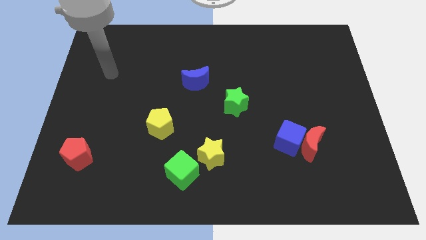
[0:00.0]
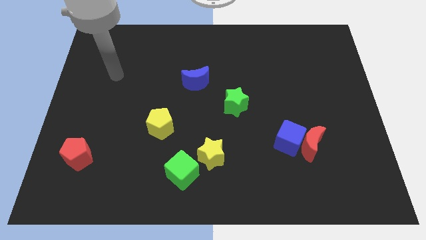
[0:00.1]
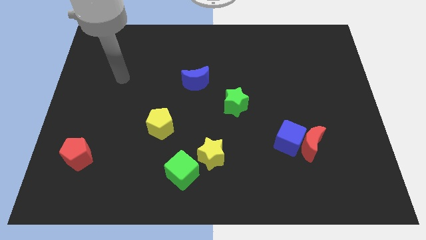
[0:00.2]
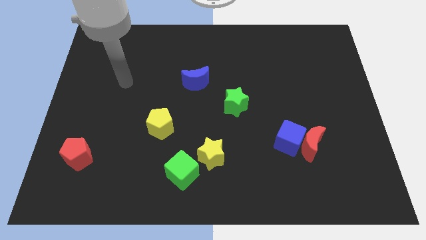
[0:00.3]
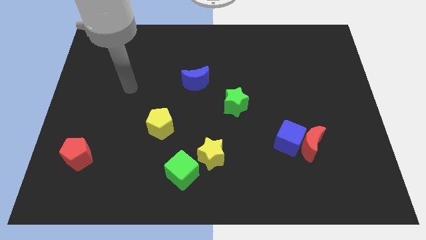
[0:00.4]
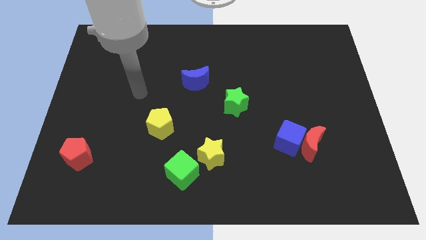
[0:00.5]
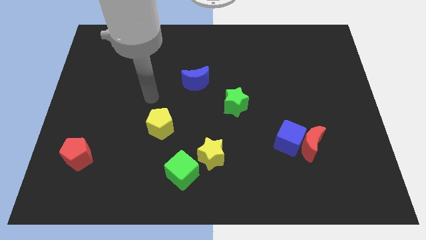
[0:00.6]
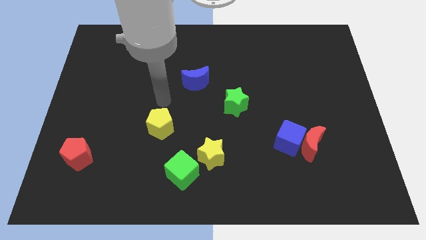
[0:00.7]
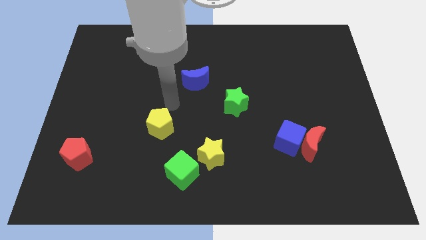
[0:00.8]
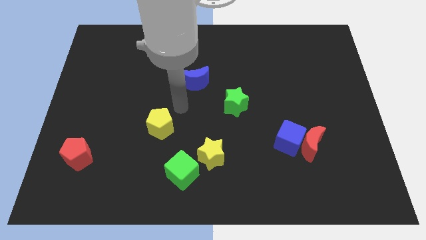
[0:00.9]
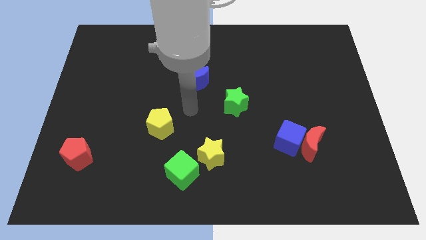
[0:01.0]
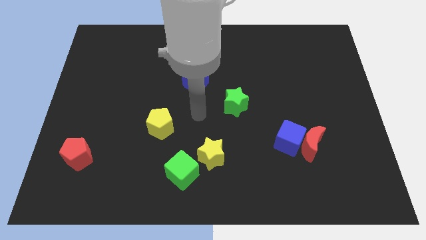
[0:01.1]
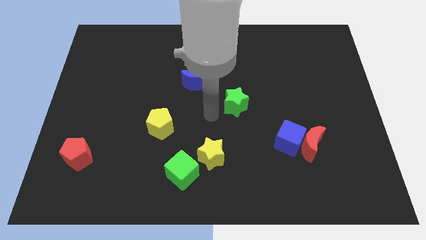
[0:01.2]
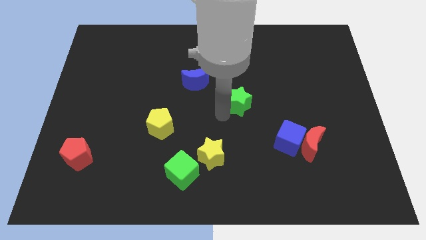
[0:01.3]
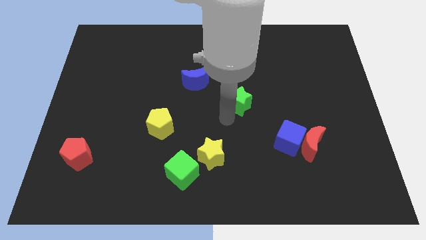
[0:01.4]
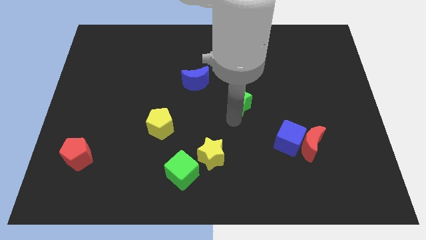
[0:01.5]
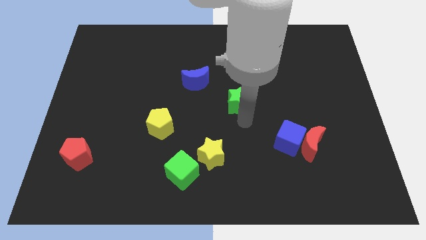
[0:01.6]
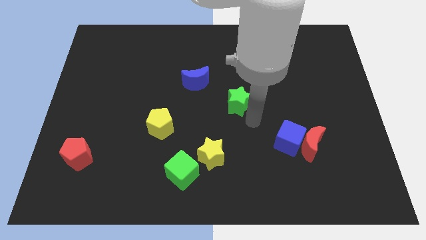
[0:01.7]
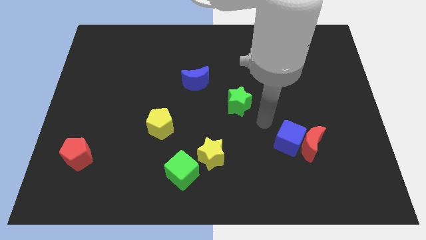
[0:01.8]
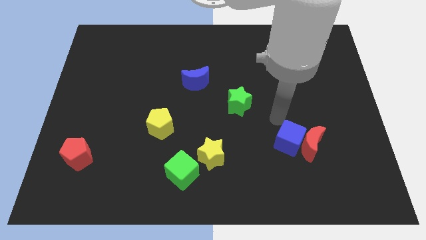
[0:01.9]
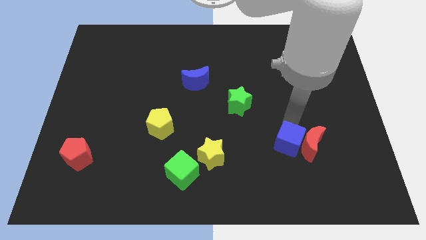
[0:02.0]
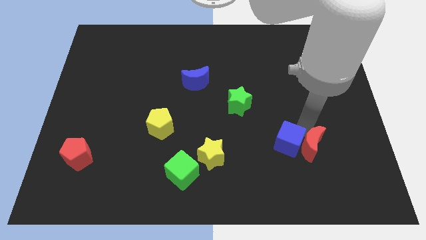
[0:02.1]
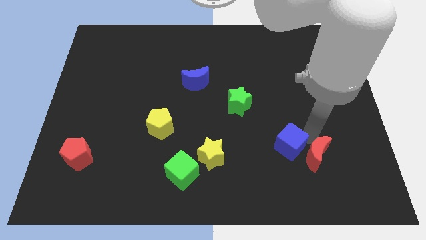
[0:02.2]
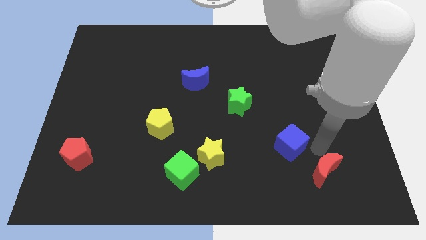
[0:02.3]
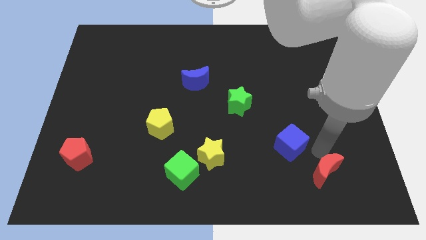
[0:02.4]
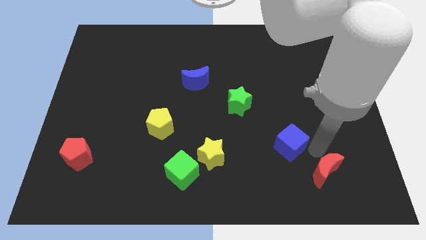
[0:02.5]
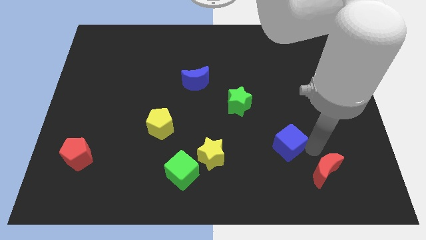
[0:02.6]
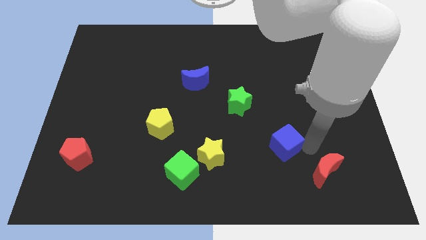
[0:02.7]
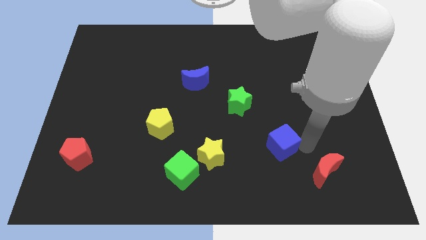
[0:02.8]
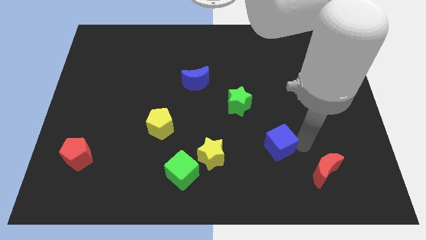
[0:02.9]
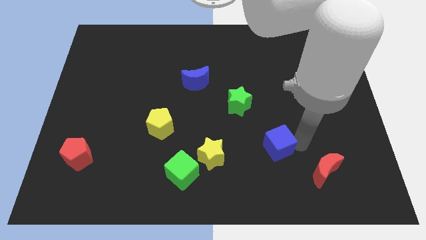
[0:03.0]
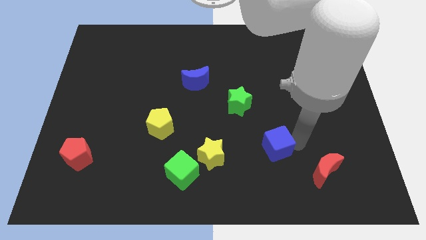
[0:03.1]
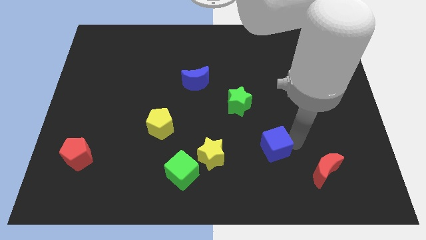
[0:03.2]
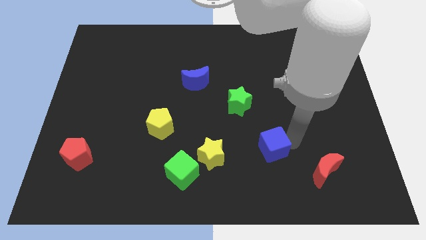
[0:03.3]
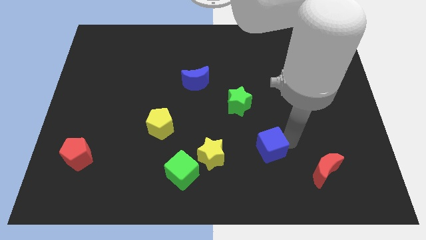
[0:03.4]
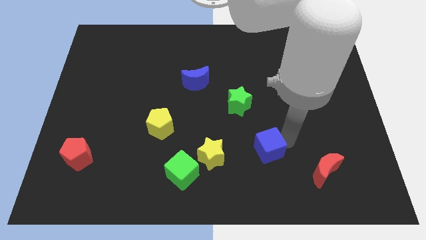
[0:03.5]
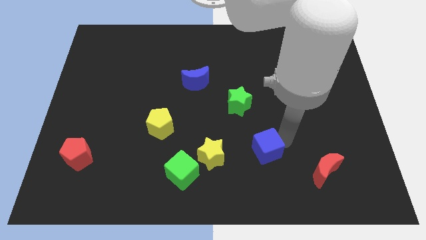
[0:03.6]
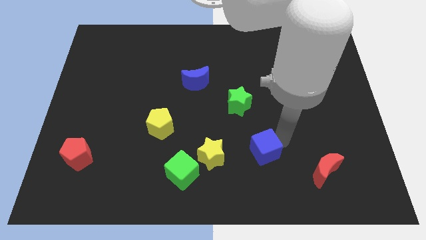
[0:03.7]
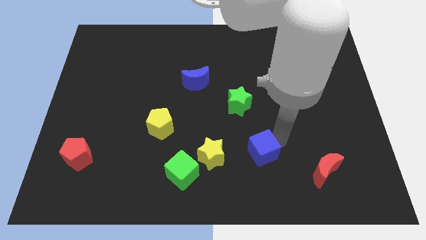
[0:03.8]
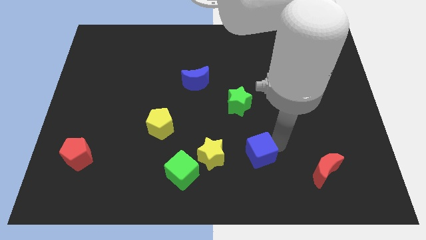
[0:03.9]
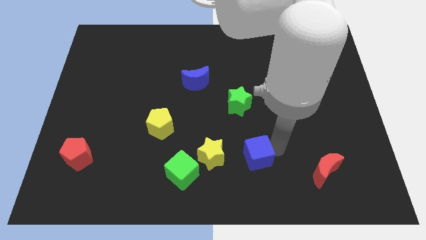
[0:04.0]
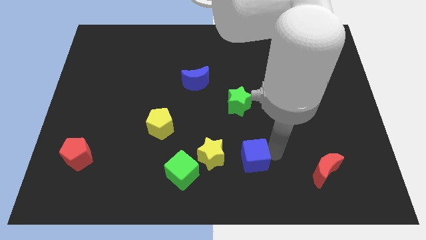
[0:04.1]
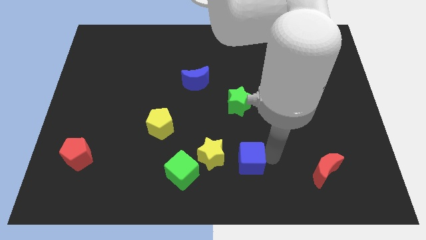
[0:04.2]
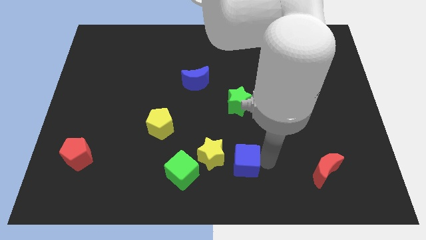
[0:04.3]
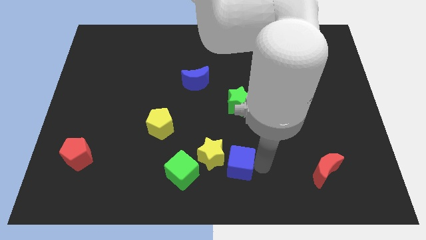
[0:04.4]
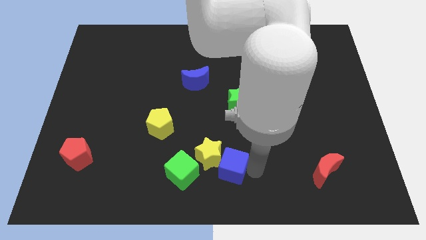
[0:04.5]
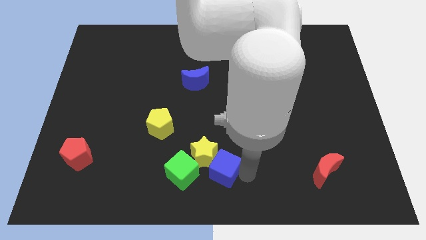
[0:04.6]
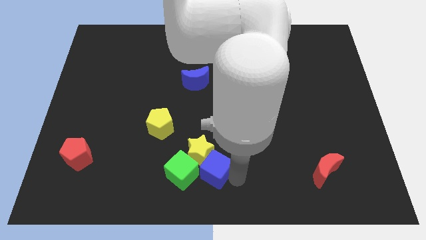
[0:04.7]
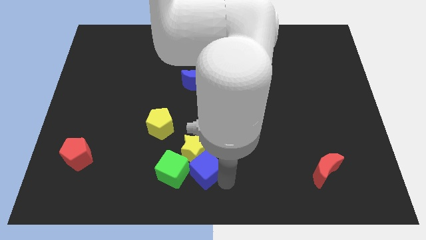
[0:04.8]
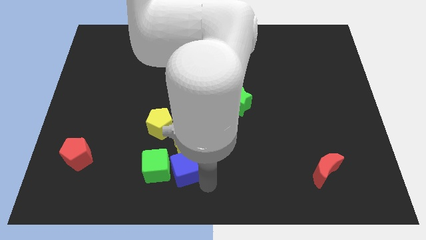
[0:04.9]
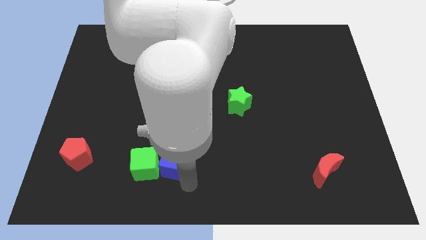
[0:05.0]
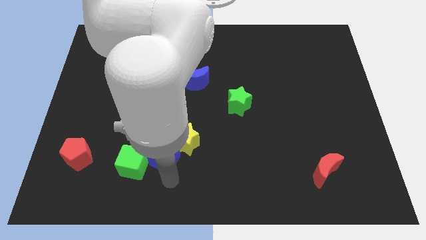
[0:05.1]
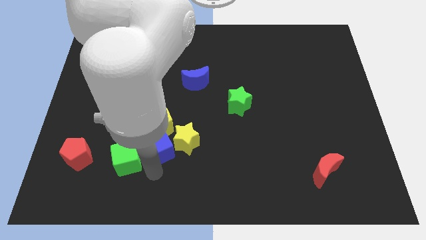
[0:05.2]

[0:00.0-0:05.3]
put the blue cube close to the yellow pentagon

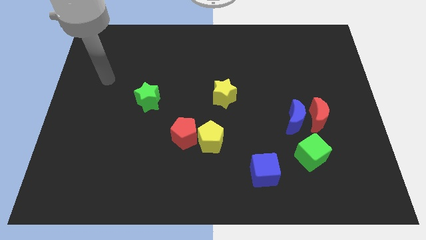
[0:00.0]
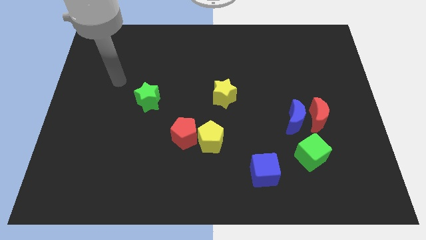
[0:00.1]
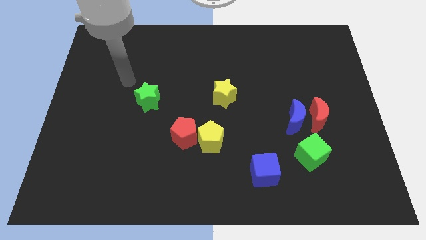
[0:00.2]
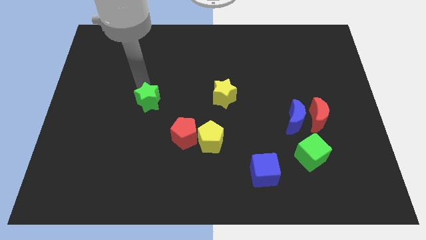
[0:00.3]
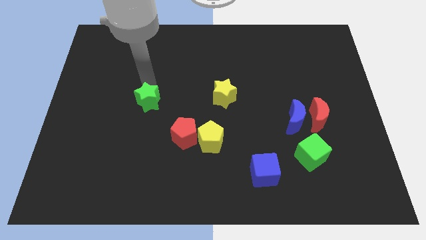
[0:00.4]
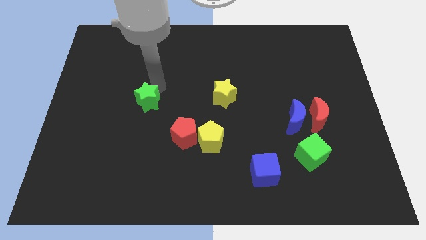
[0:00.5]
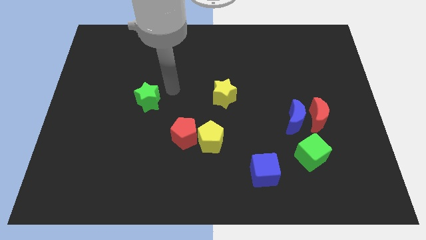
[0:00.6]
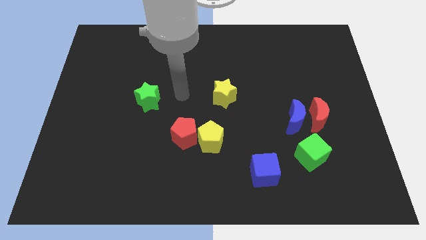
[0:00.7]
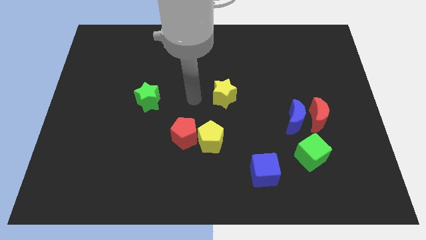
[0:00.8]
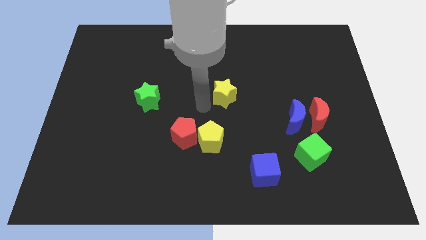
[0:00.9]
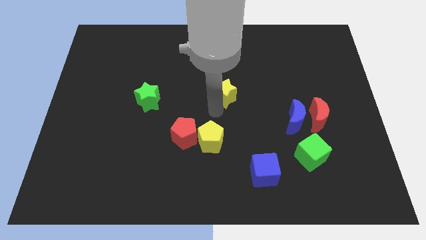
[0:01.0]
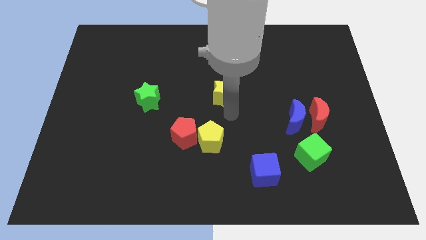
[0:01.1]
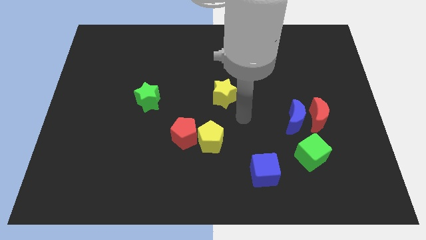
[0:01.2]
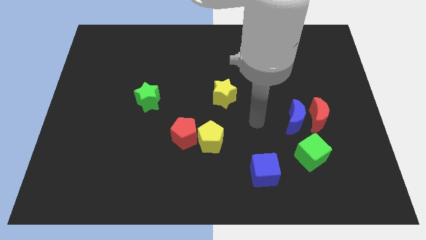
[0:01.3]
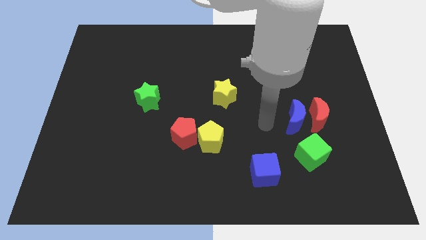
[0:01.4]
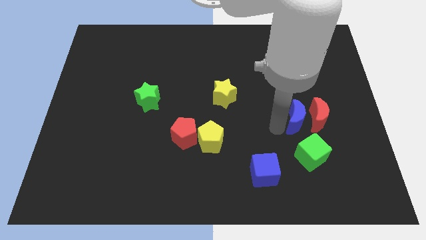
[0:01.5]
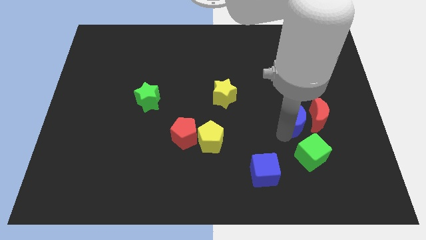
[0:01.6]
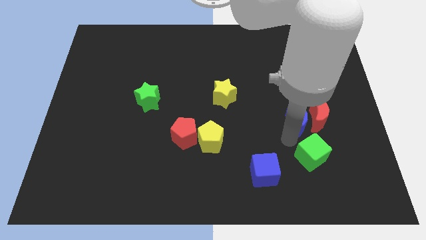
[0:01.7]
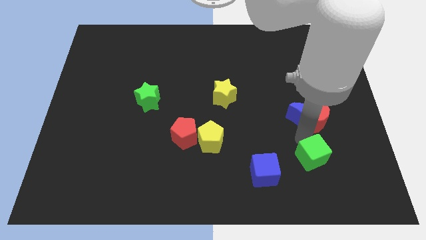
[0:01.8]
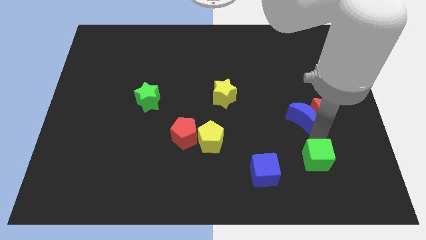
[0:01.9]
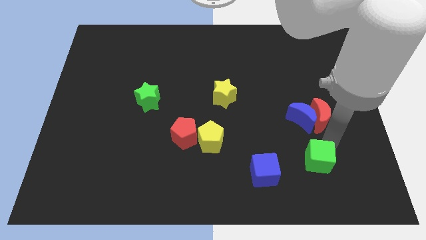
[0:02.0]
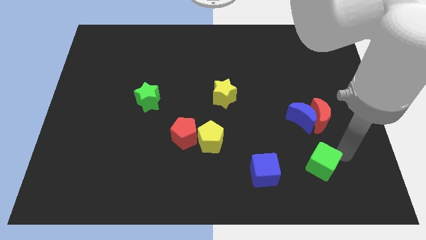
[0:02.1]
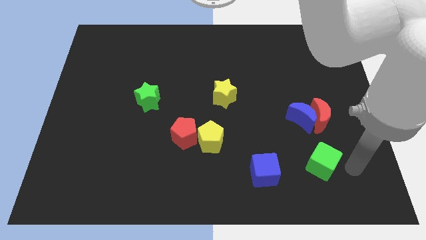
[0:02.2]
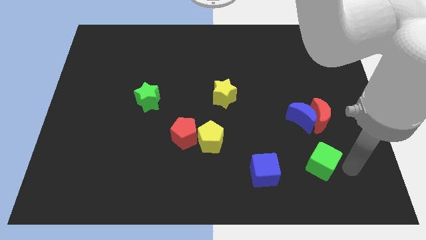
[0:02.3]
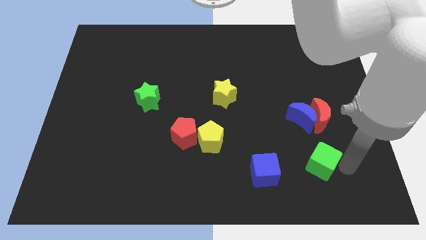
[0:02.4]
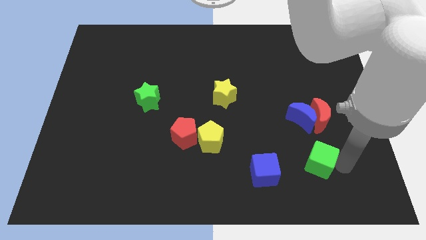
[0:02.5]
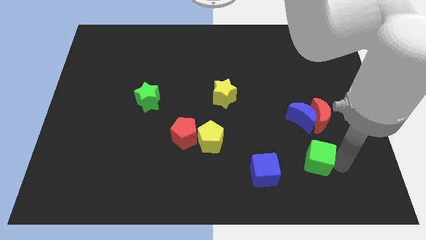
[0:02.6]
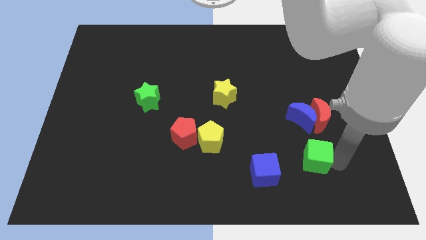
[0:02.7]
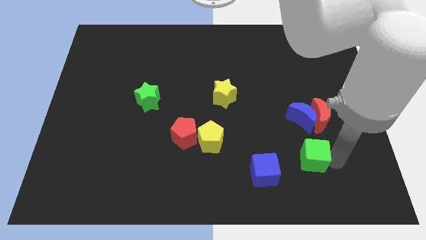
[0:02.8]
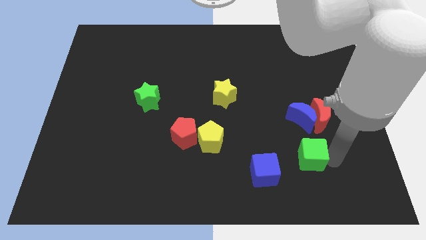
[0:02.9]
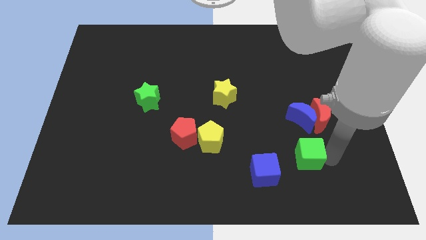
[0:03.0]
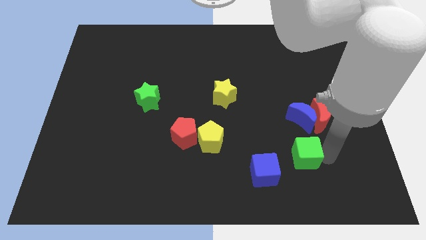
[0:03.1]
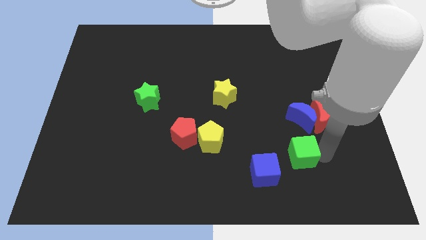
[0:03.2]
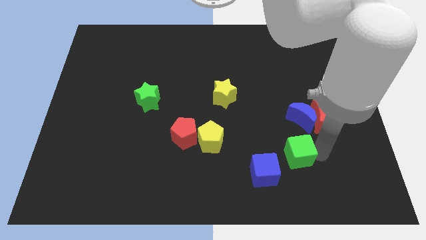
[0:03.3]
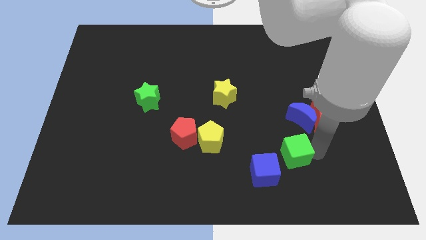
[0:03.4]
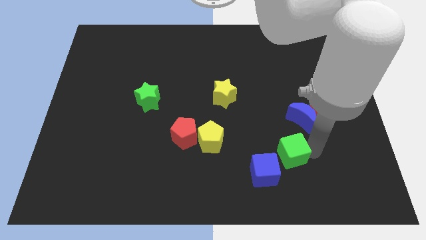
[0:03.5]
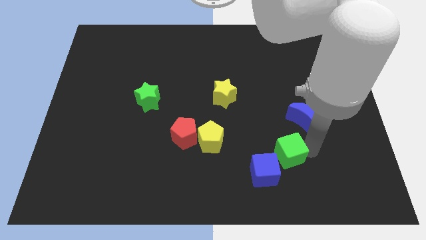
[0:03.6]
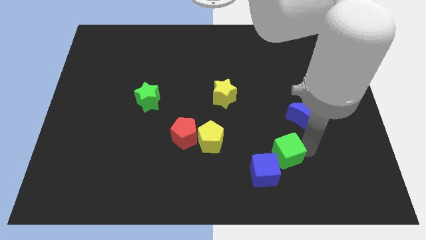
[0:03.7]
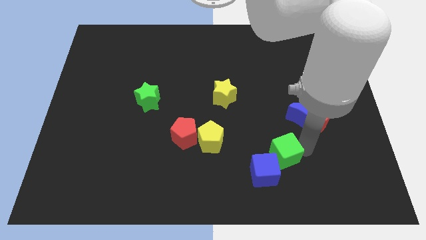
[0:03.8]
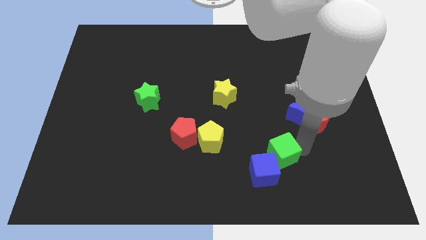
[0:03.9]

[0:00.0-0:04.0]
push the green cube to the blue cube
